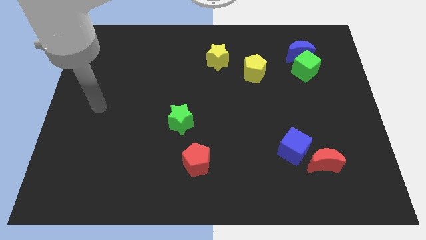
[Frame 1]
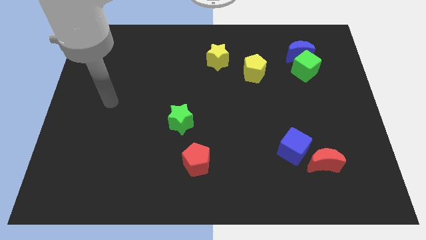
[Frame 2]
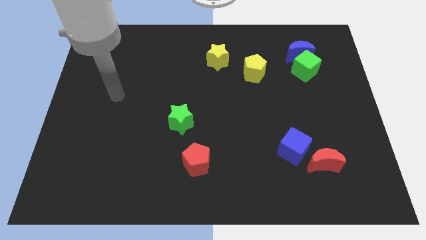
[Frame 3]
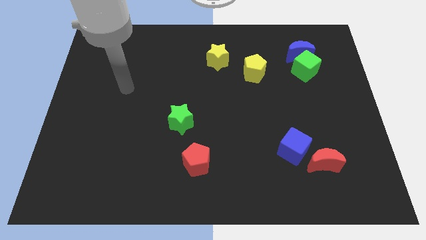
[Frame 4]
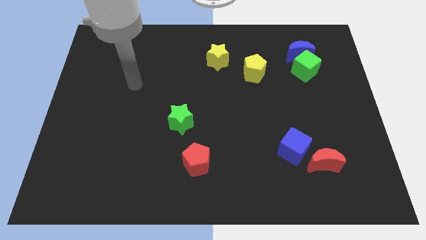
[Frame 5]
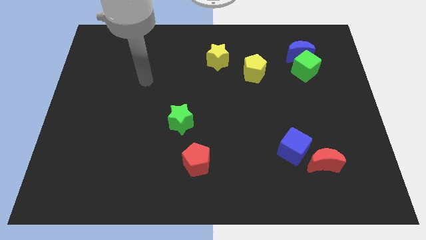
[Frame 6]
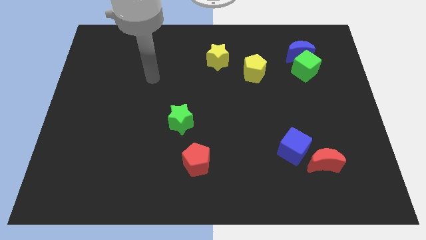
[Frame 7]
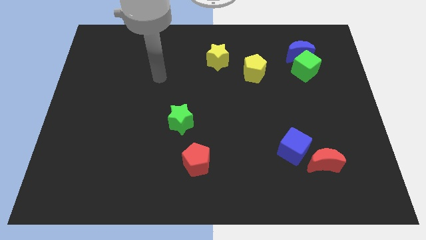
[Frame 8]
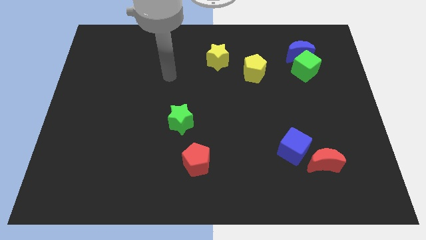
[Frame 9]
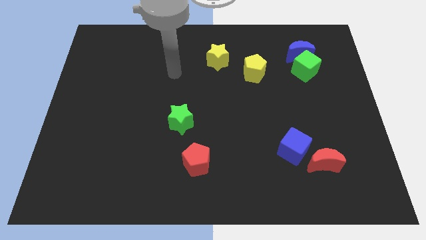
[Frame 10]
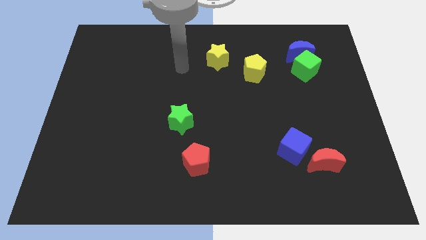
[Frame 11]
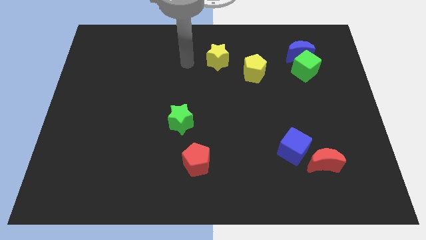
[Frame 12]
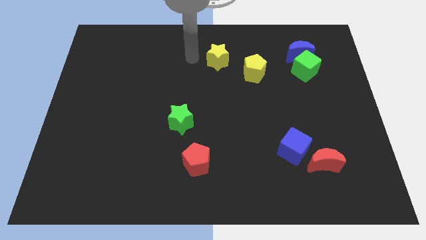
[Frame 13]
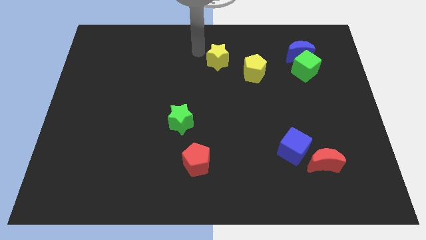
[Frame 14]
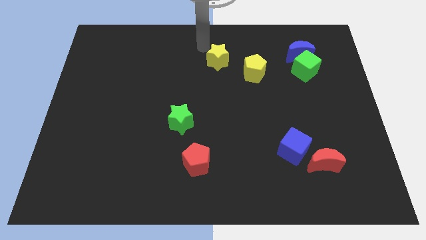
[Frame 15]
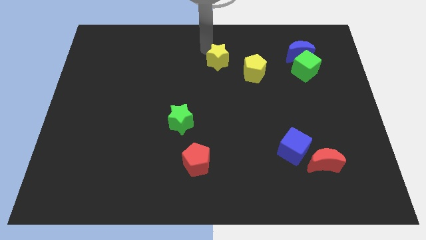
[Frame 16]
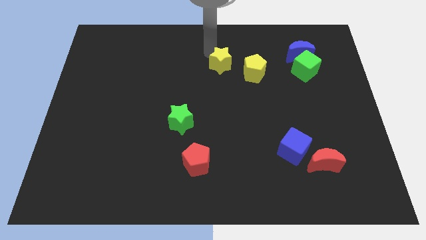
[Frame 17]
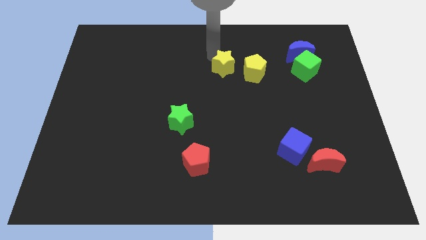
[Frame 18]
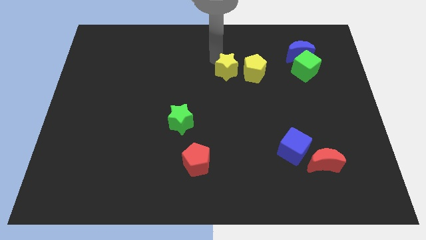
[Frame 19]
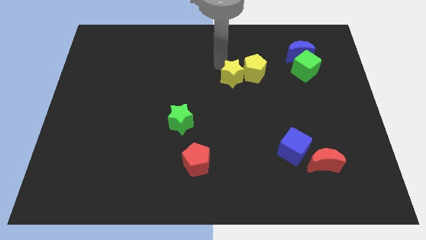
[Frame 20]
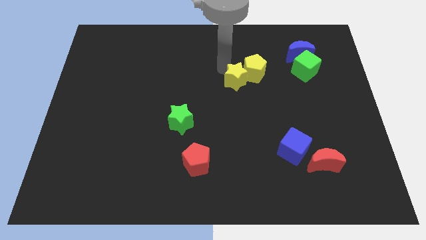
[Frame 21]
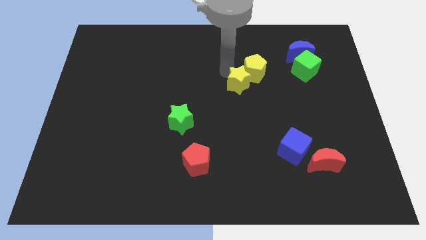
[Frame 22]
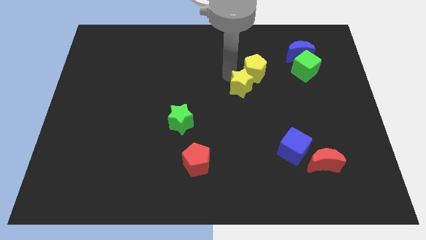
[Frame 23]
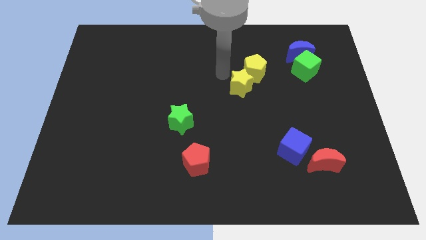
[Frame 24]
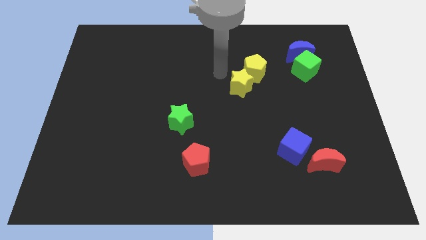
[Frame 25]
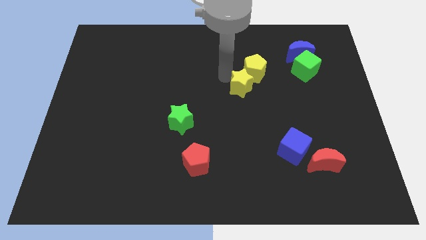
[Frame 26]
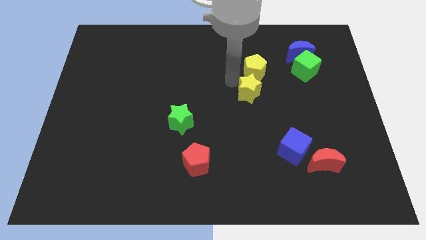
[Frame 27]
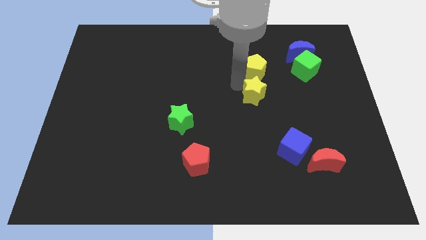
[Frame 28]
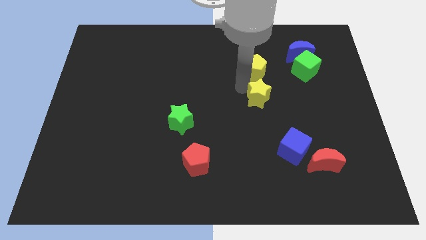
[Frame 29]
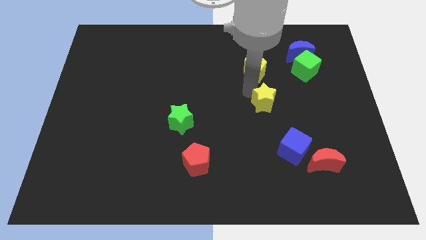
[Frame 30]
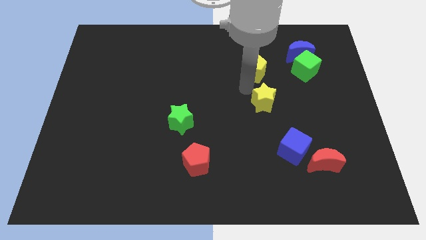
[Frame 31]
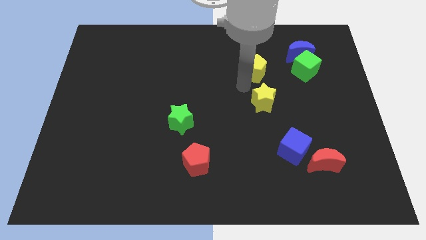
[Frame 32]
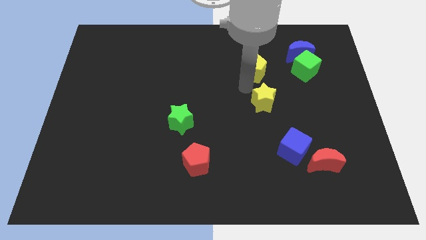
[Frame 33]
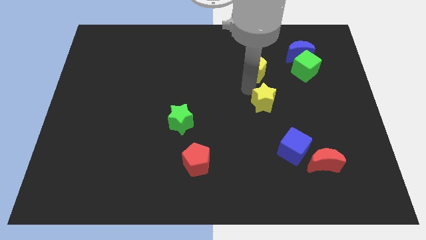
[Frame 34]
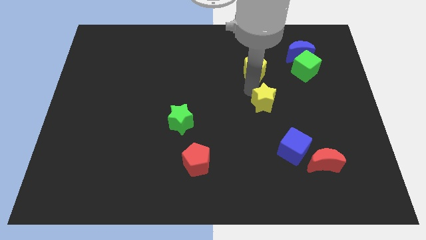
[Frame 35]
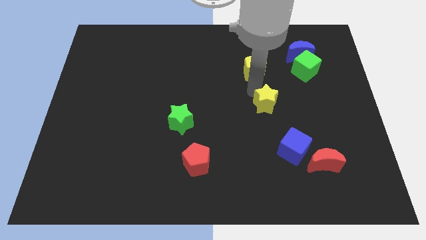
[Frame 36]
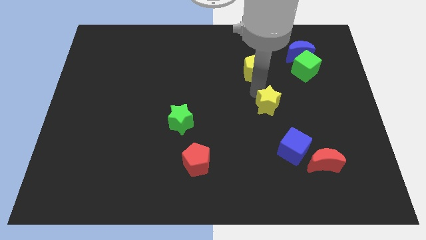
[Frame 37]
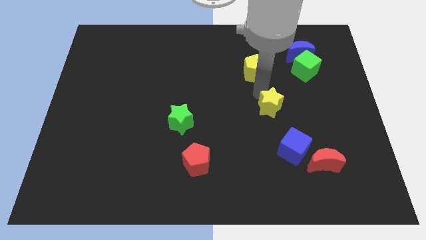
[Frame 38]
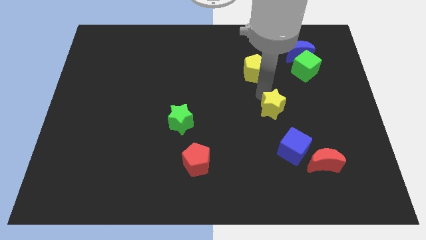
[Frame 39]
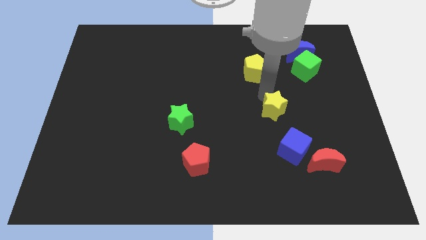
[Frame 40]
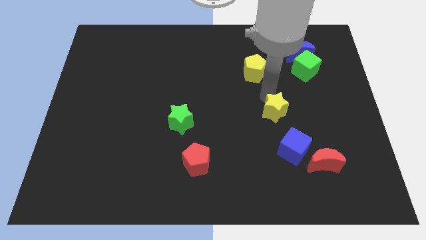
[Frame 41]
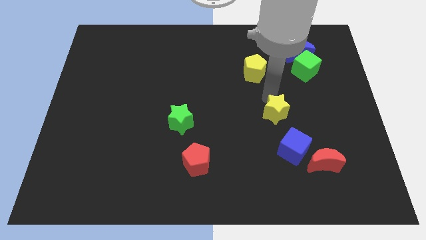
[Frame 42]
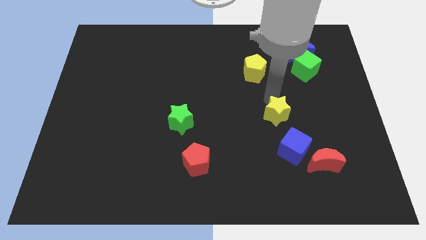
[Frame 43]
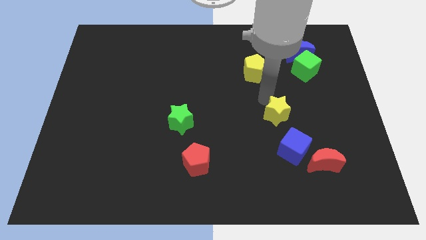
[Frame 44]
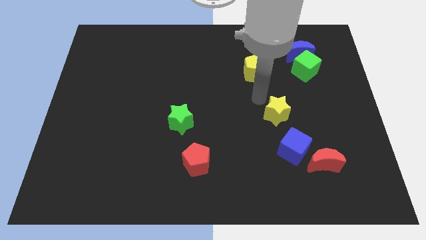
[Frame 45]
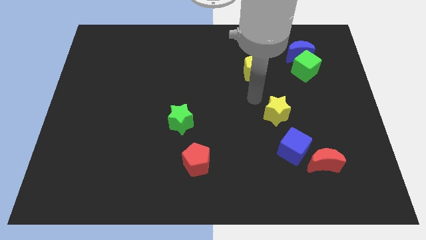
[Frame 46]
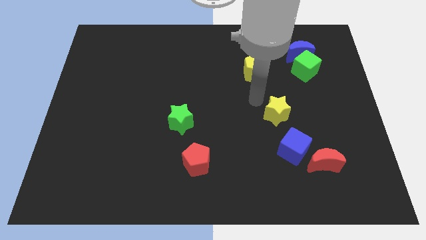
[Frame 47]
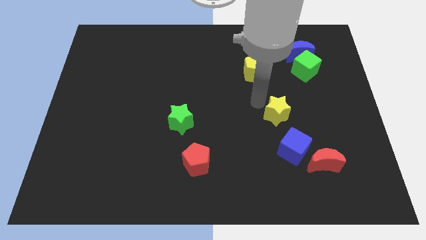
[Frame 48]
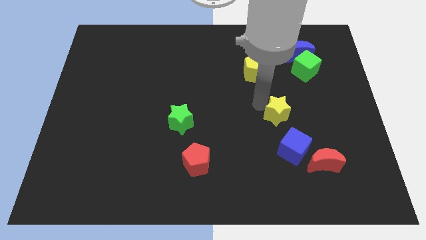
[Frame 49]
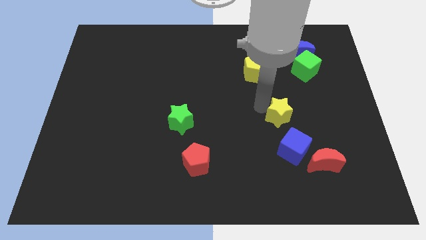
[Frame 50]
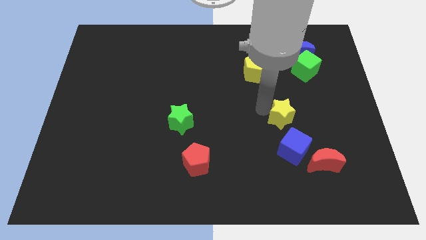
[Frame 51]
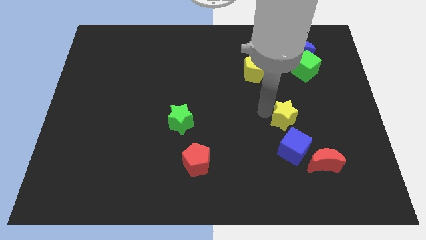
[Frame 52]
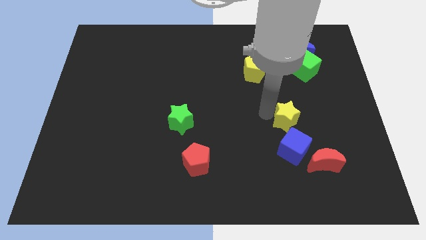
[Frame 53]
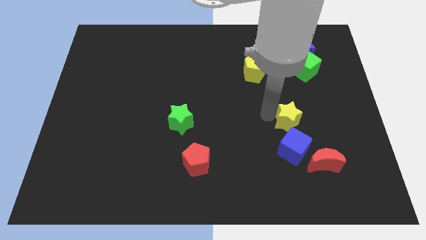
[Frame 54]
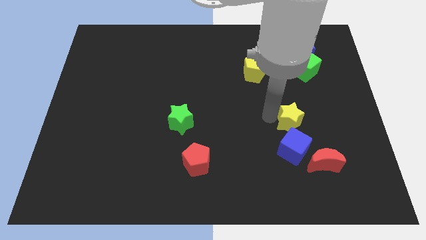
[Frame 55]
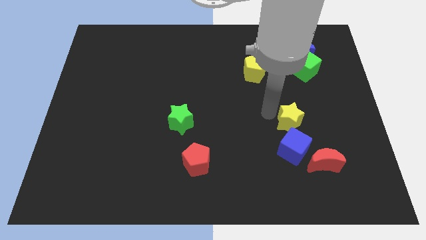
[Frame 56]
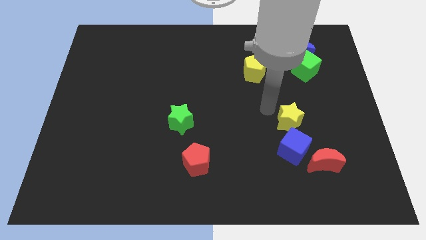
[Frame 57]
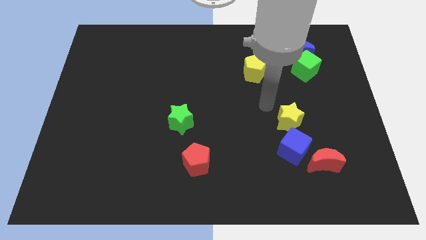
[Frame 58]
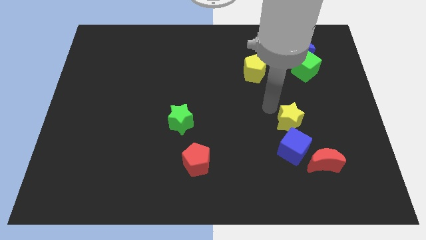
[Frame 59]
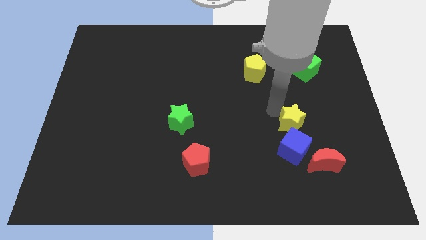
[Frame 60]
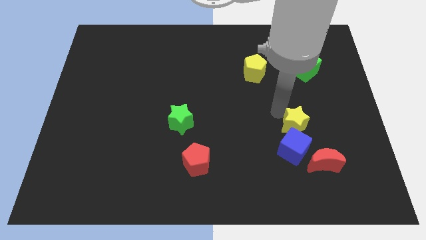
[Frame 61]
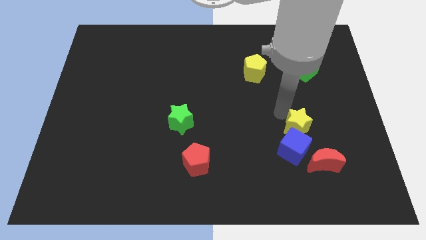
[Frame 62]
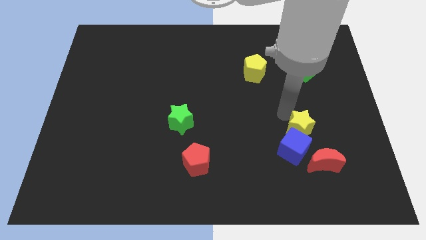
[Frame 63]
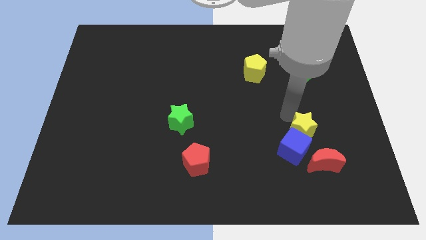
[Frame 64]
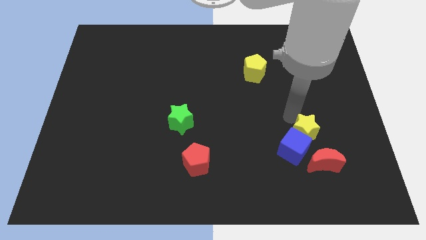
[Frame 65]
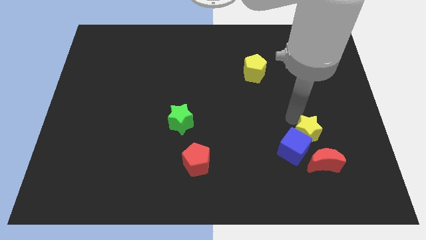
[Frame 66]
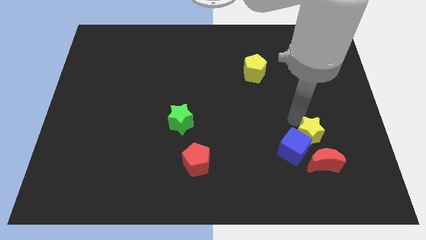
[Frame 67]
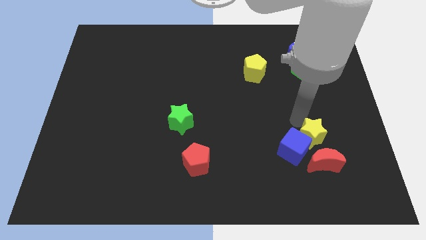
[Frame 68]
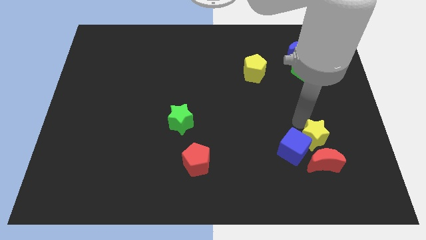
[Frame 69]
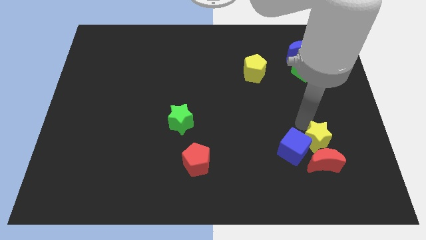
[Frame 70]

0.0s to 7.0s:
push the yellow star towards the red moon

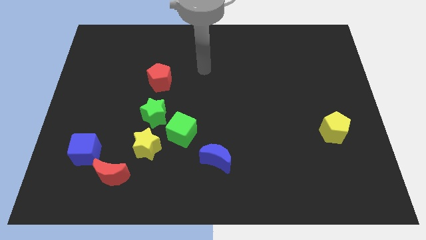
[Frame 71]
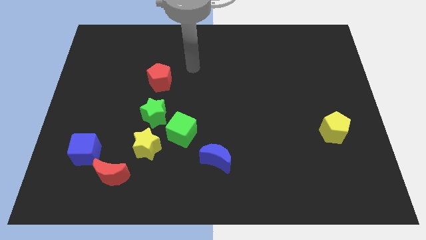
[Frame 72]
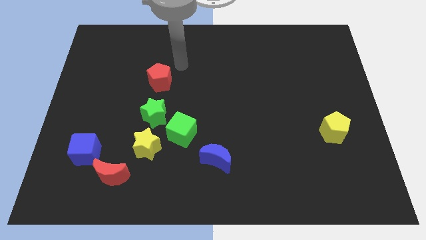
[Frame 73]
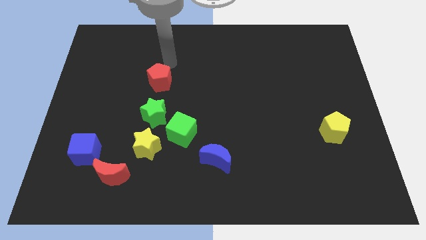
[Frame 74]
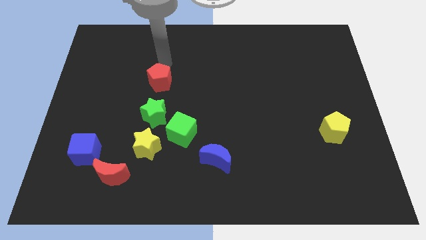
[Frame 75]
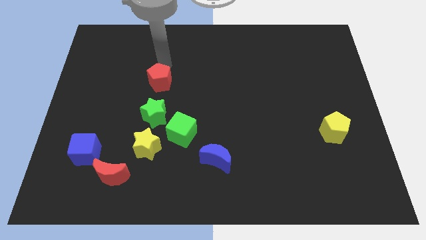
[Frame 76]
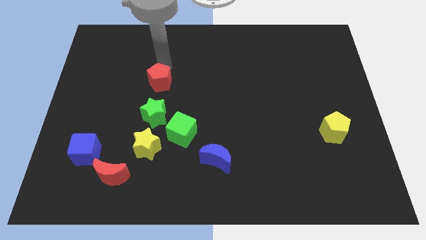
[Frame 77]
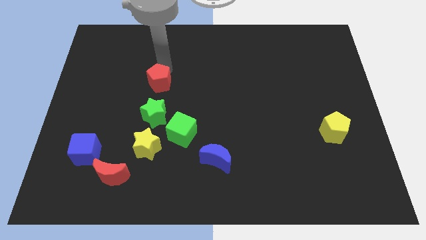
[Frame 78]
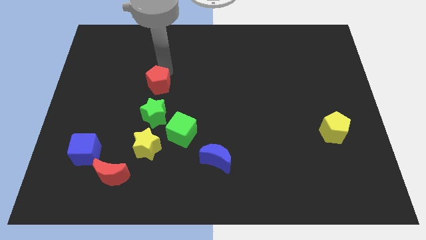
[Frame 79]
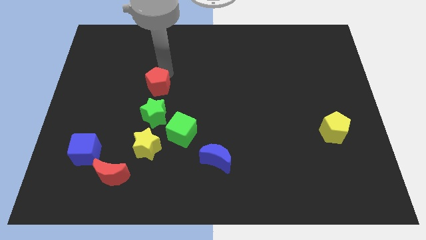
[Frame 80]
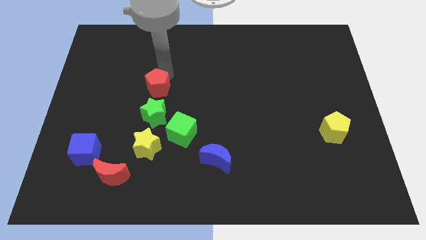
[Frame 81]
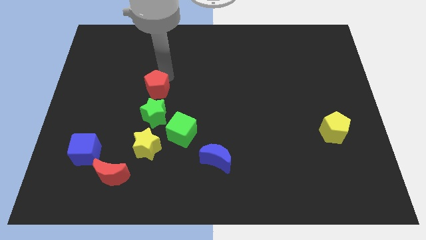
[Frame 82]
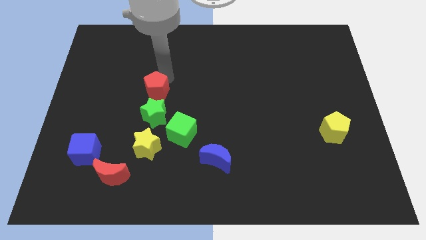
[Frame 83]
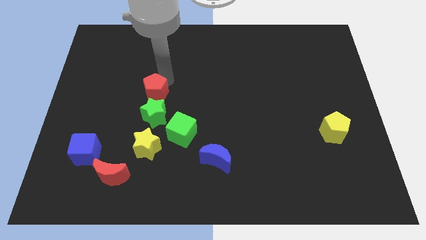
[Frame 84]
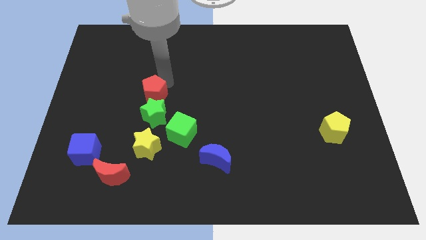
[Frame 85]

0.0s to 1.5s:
slide the red pentagon towards the green star
